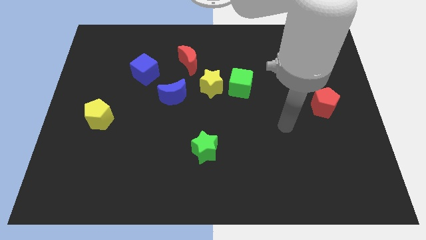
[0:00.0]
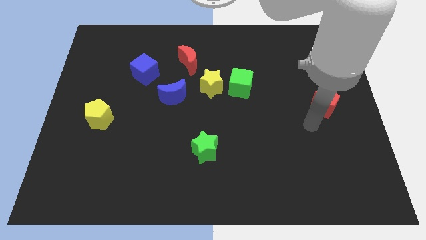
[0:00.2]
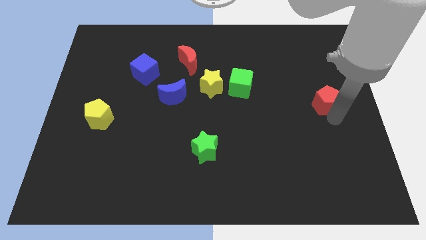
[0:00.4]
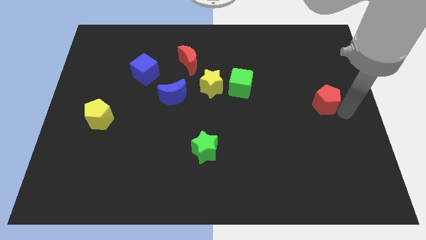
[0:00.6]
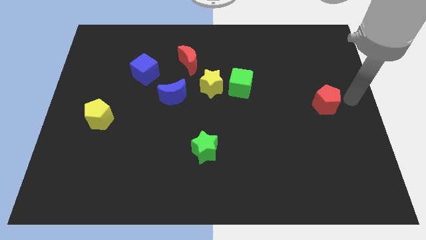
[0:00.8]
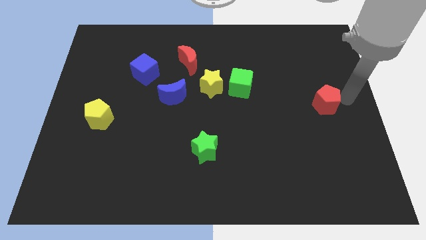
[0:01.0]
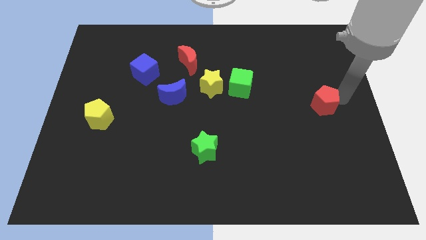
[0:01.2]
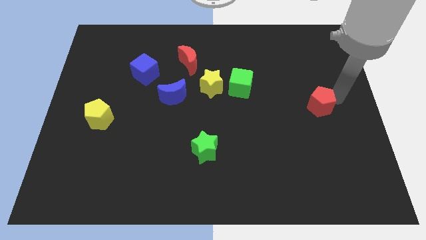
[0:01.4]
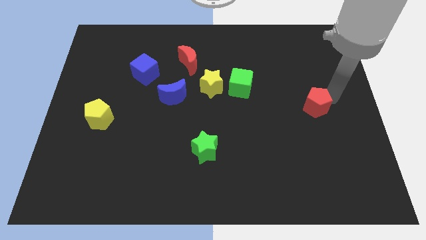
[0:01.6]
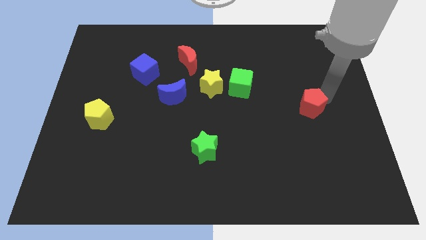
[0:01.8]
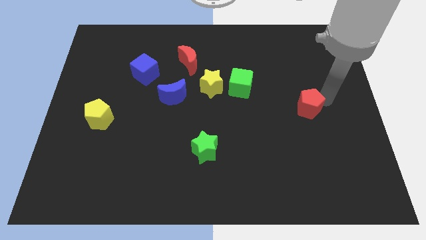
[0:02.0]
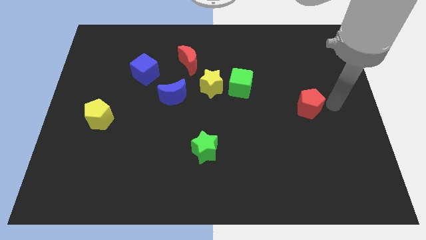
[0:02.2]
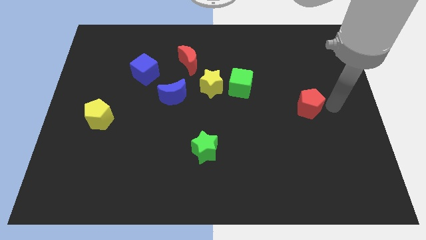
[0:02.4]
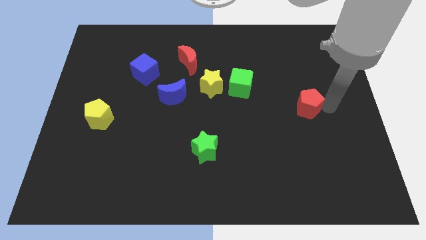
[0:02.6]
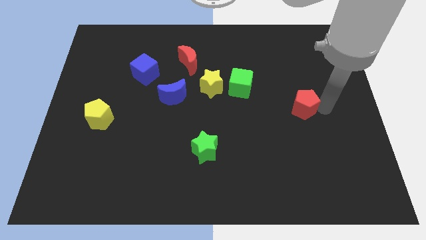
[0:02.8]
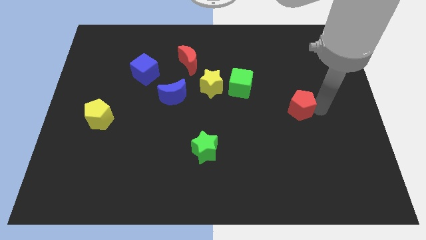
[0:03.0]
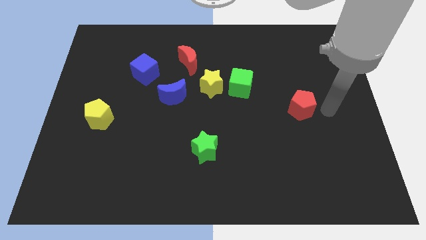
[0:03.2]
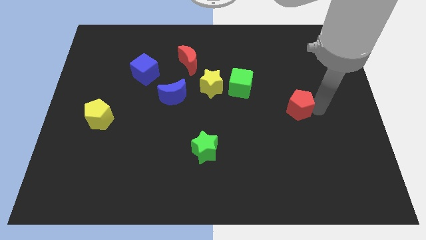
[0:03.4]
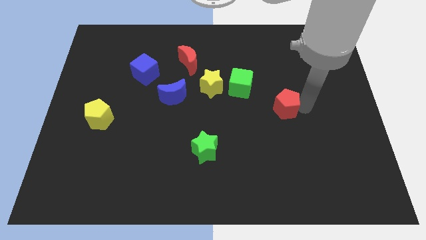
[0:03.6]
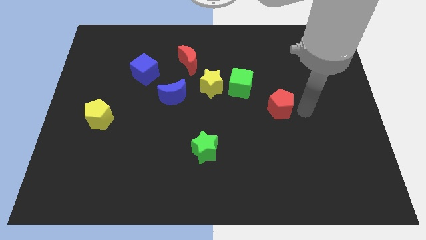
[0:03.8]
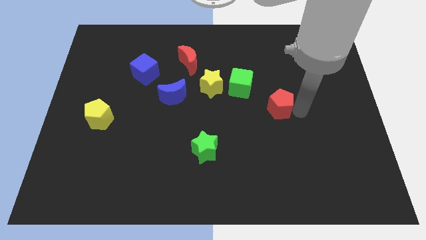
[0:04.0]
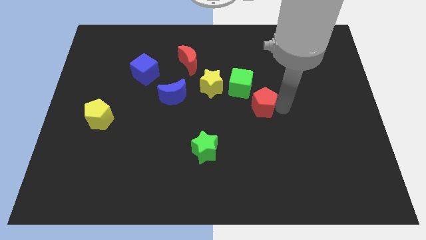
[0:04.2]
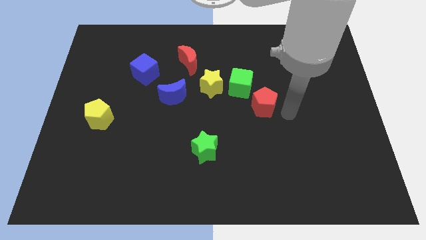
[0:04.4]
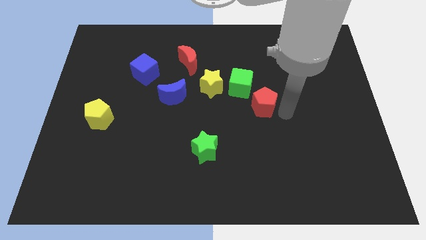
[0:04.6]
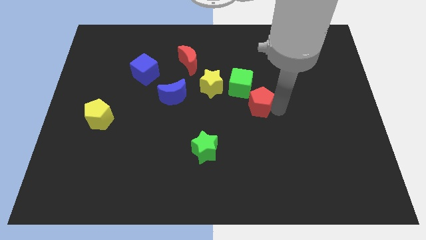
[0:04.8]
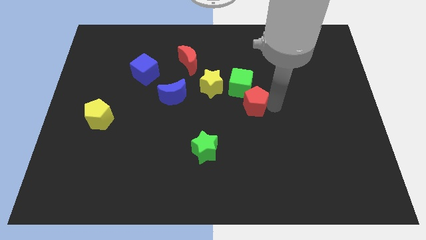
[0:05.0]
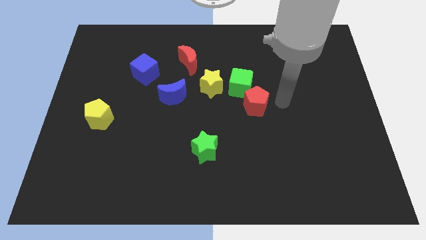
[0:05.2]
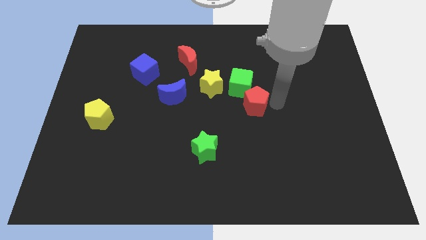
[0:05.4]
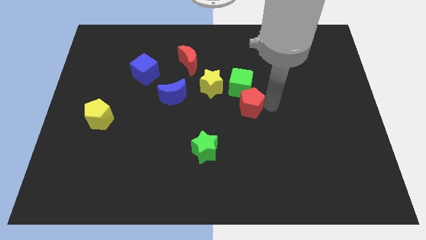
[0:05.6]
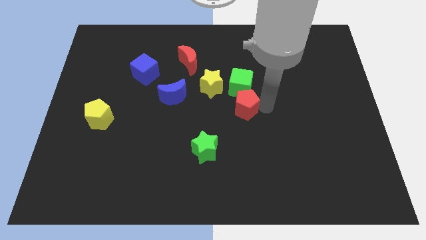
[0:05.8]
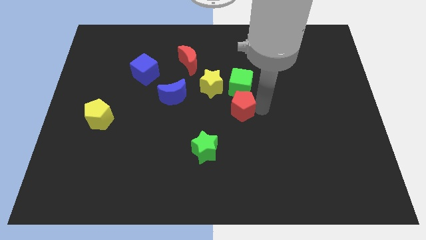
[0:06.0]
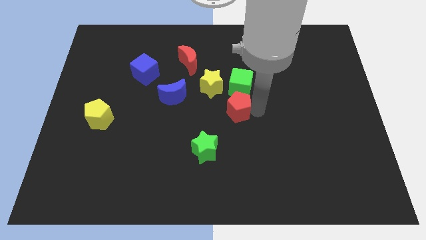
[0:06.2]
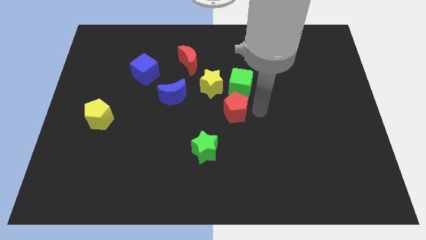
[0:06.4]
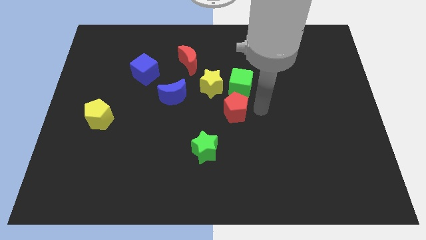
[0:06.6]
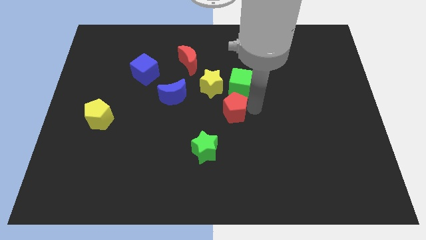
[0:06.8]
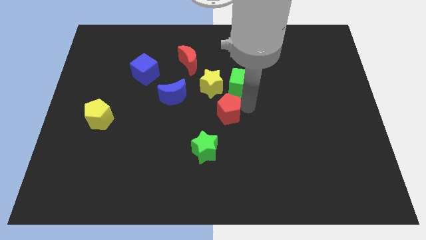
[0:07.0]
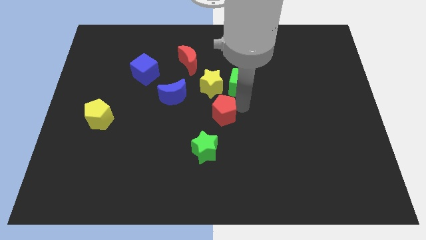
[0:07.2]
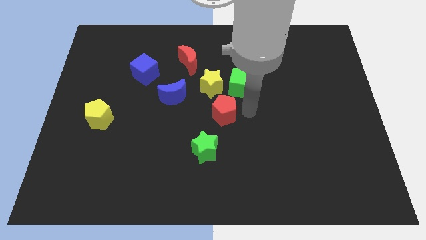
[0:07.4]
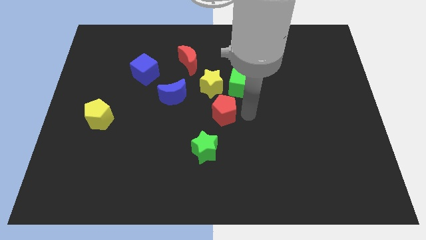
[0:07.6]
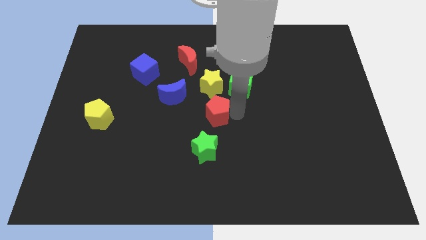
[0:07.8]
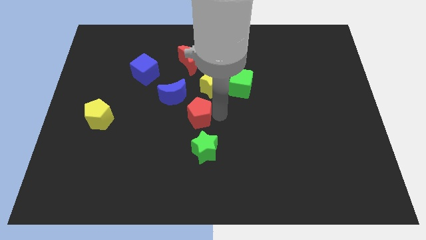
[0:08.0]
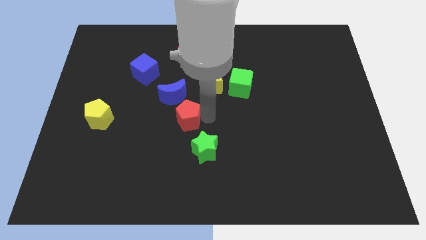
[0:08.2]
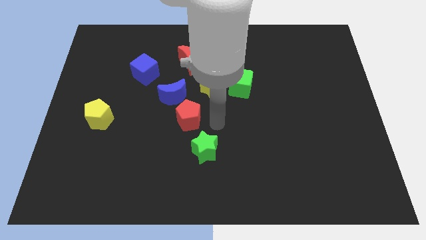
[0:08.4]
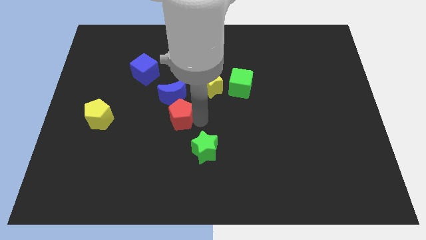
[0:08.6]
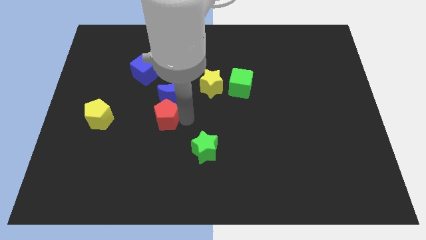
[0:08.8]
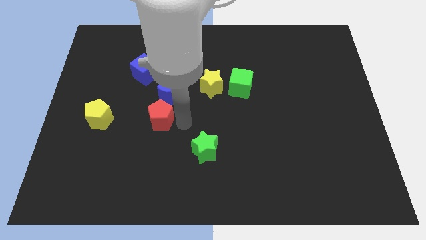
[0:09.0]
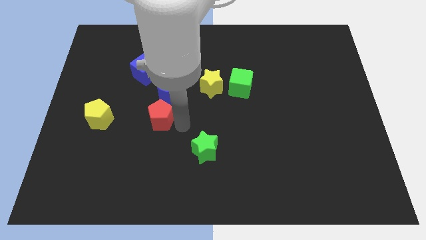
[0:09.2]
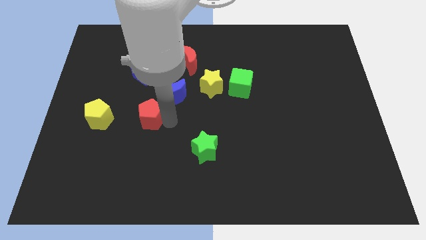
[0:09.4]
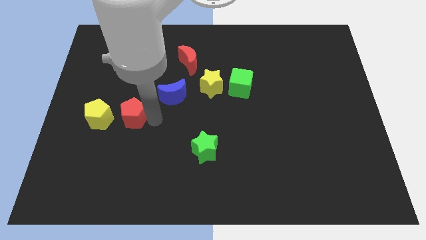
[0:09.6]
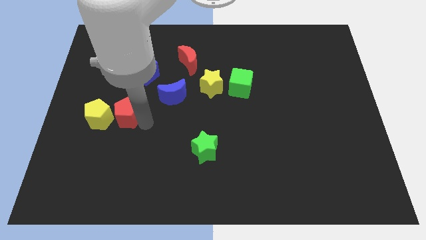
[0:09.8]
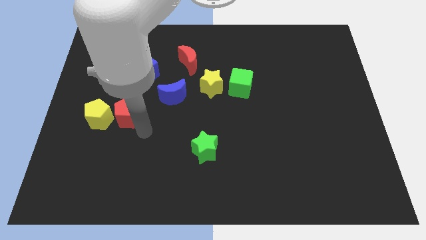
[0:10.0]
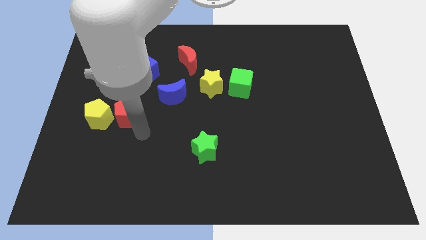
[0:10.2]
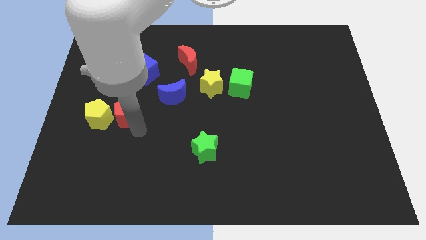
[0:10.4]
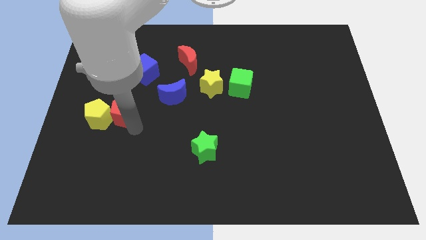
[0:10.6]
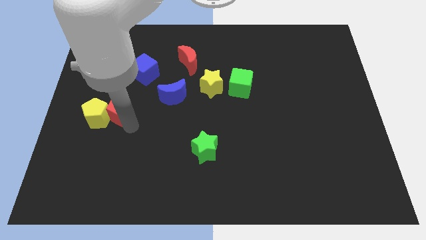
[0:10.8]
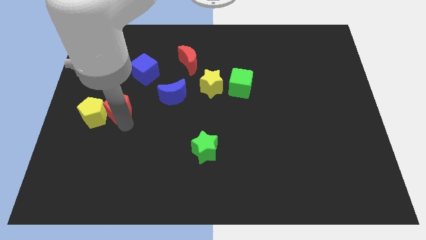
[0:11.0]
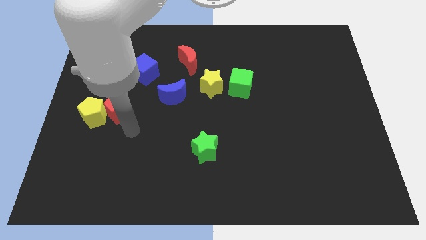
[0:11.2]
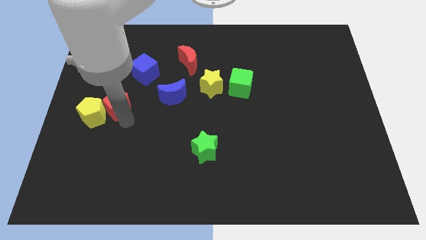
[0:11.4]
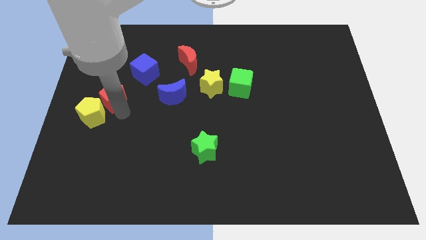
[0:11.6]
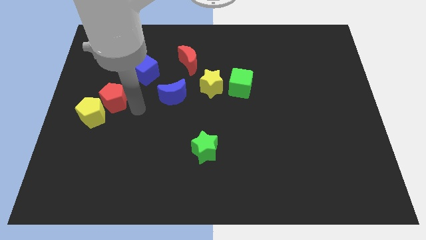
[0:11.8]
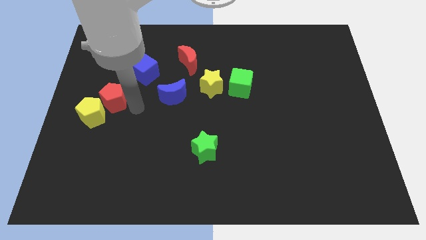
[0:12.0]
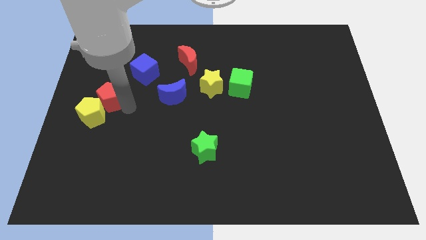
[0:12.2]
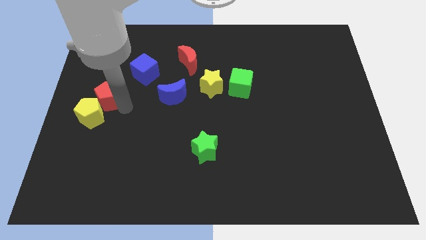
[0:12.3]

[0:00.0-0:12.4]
put the red pentagon to the left side
